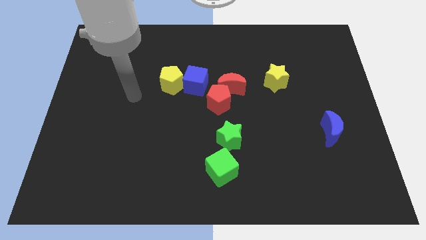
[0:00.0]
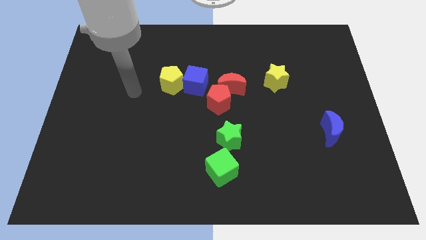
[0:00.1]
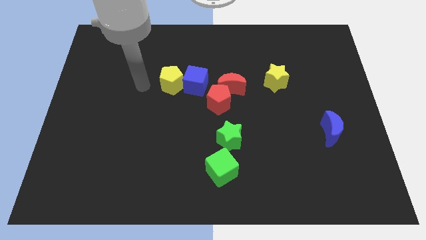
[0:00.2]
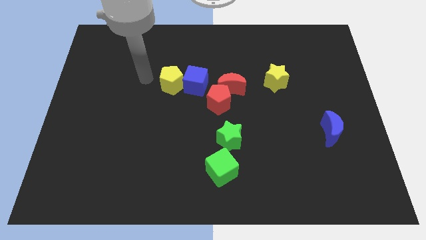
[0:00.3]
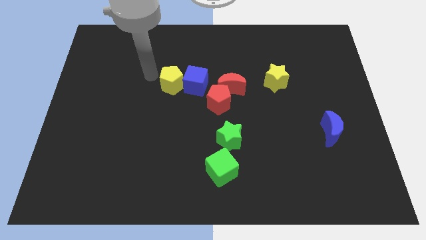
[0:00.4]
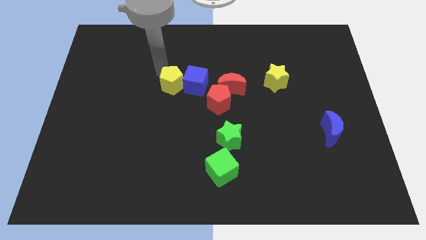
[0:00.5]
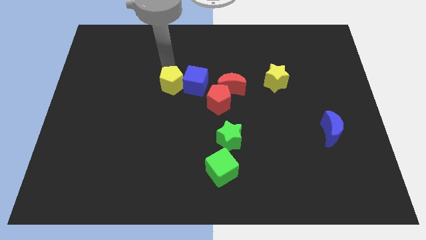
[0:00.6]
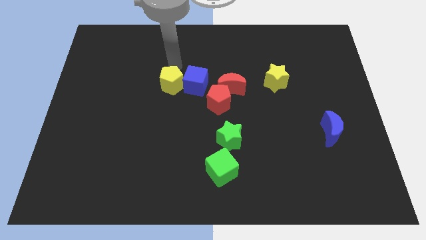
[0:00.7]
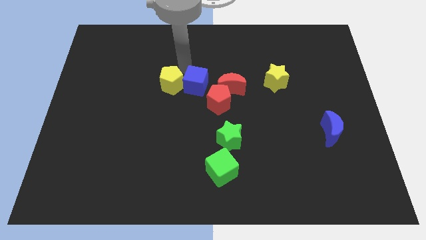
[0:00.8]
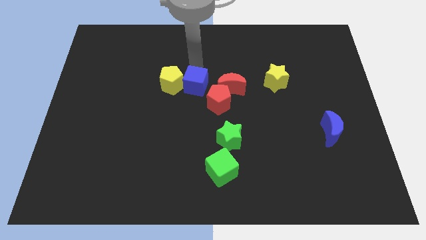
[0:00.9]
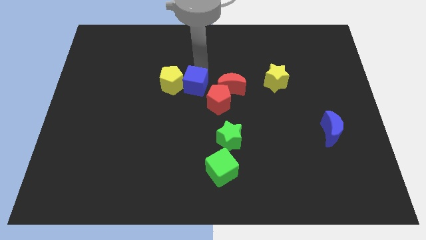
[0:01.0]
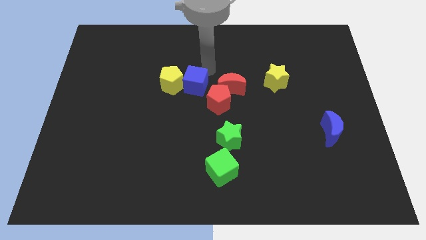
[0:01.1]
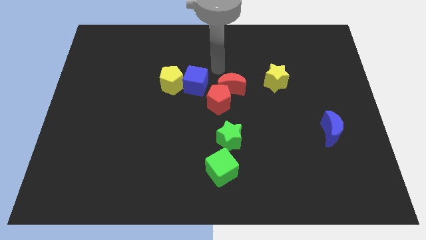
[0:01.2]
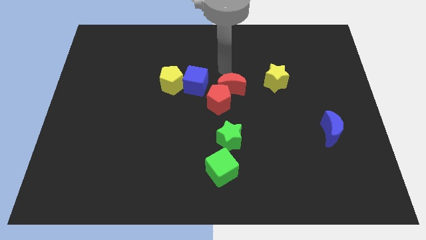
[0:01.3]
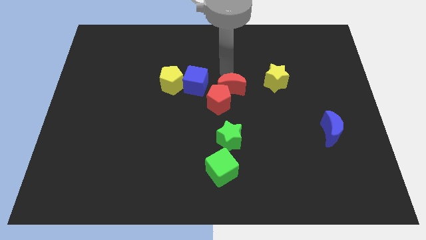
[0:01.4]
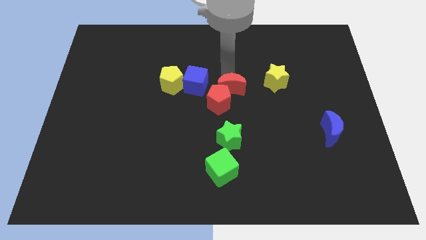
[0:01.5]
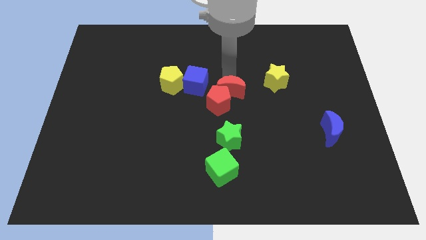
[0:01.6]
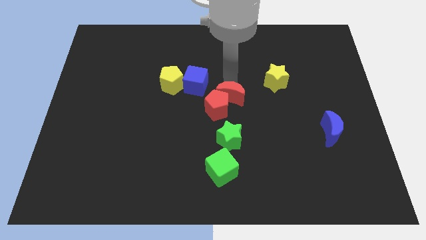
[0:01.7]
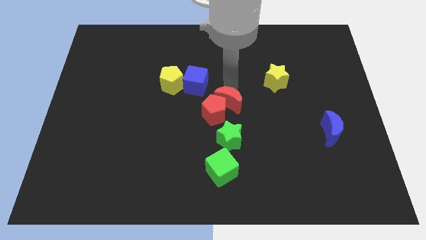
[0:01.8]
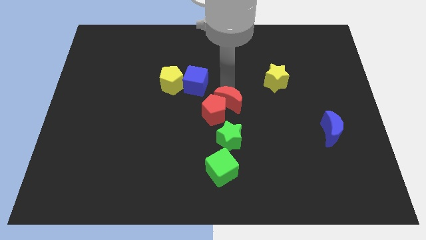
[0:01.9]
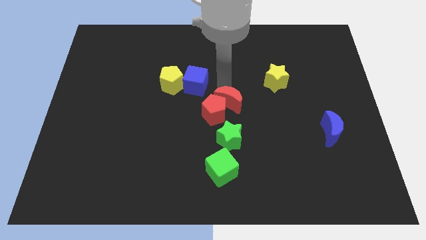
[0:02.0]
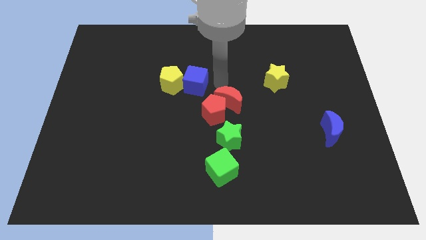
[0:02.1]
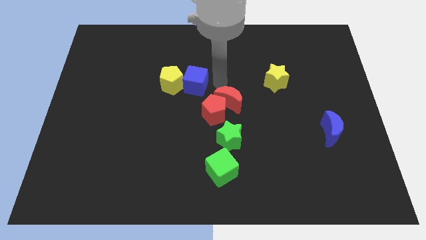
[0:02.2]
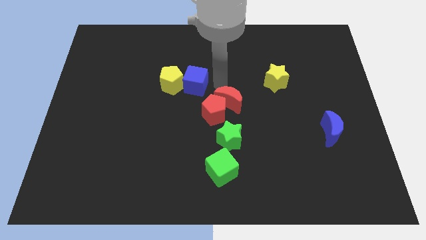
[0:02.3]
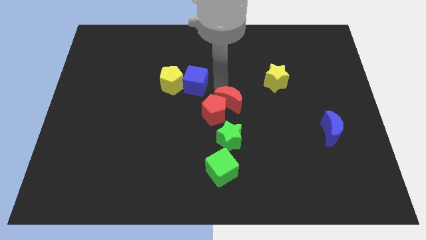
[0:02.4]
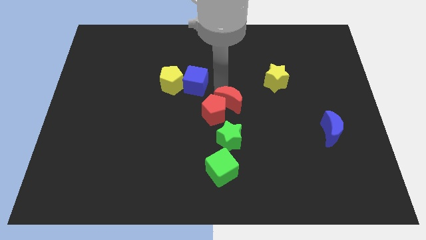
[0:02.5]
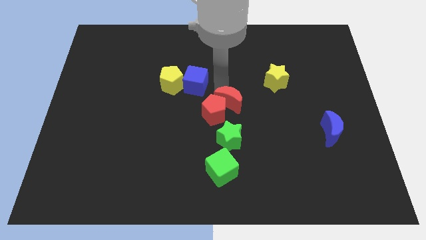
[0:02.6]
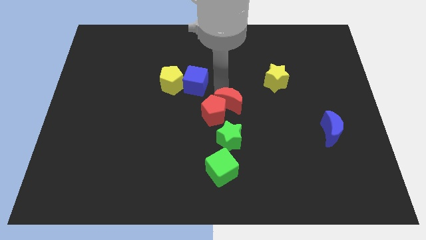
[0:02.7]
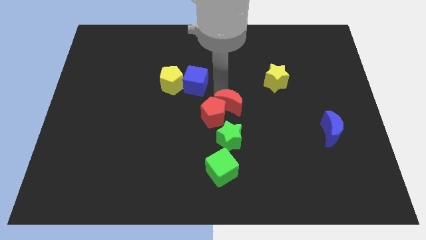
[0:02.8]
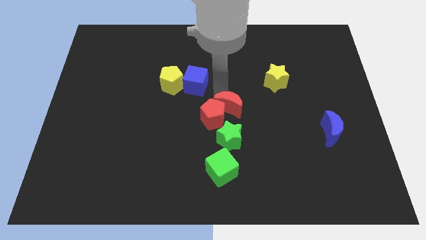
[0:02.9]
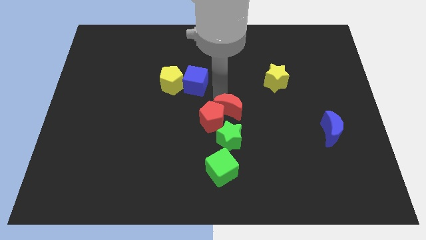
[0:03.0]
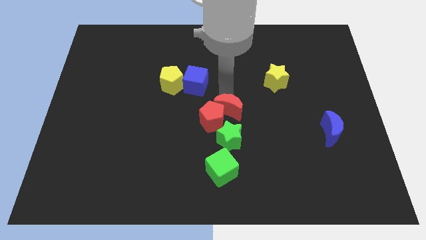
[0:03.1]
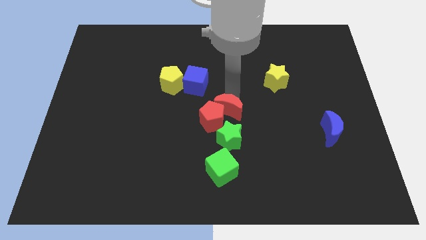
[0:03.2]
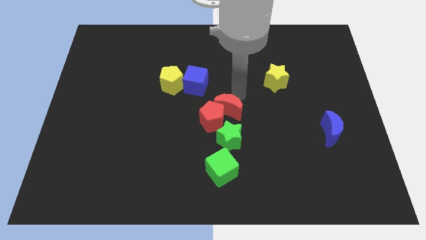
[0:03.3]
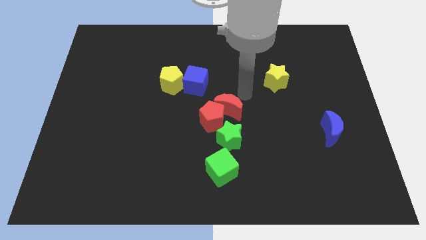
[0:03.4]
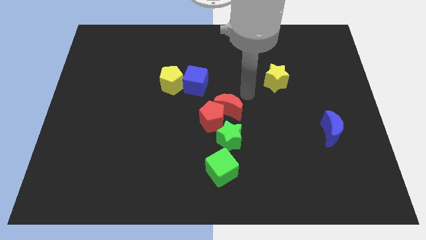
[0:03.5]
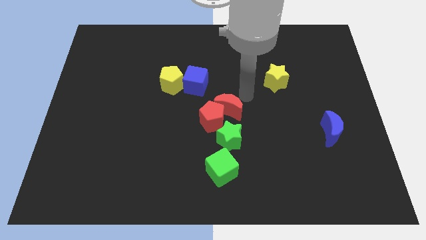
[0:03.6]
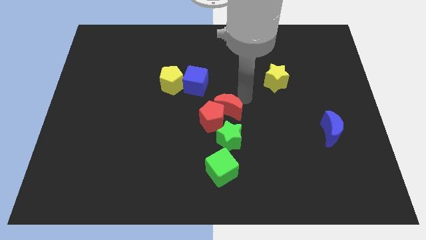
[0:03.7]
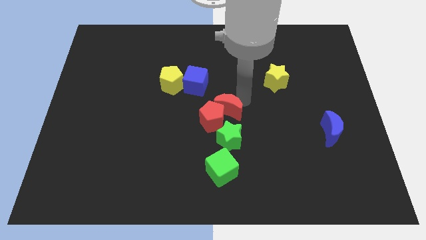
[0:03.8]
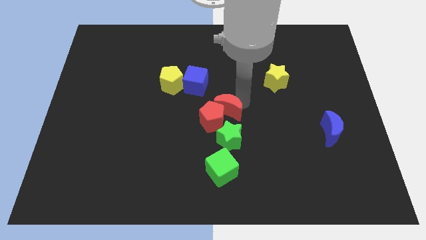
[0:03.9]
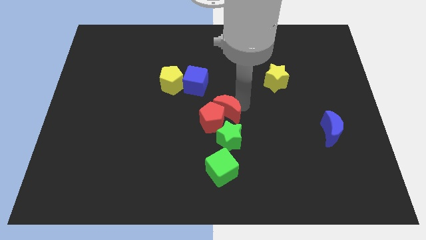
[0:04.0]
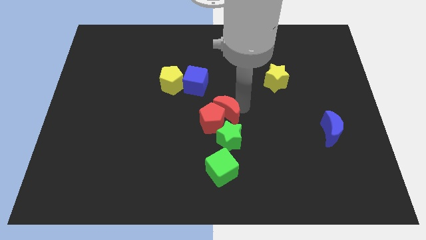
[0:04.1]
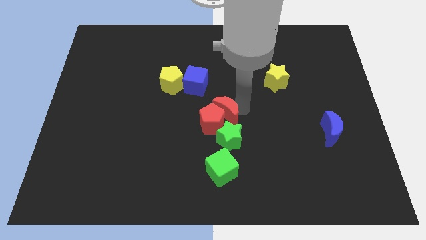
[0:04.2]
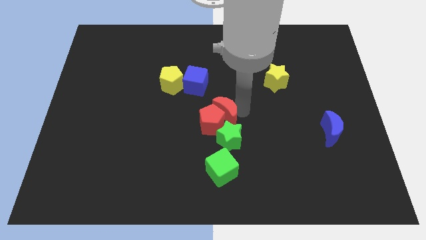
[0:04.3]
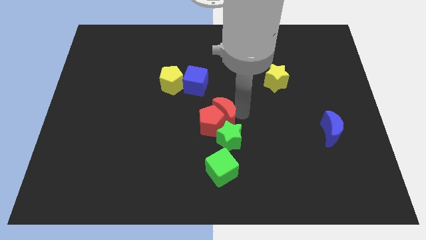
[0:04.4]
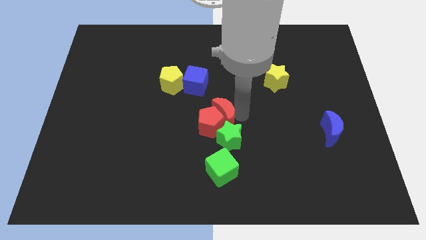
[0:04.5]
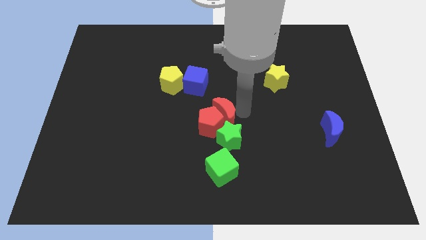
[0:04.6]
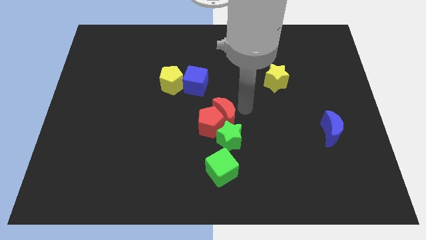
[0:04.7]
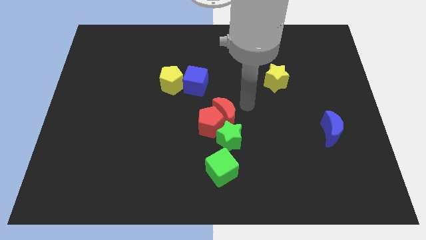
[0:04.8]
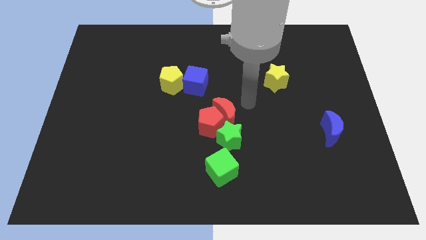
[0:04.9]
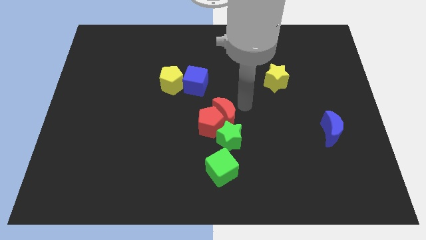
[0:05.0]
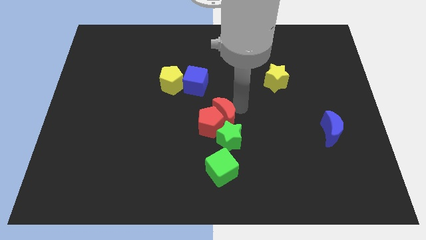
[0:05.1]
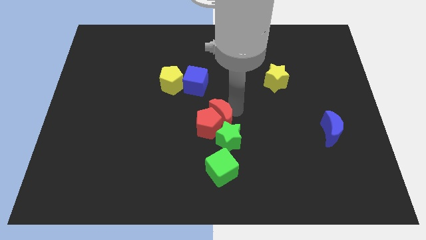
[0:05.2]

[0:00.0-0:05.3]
move the red moon downwards and then to the left slightly

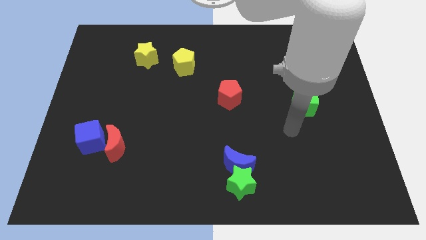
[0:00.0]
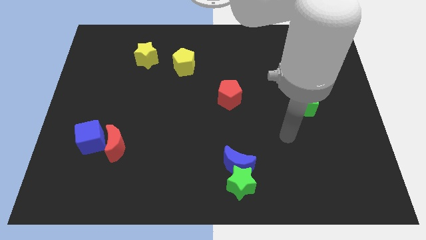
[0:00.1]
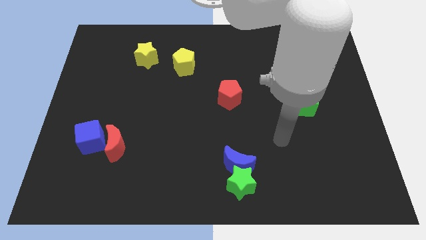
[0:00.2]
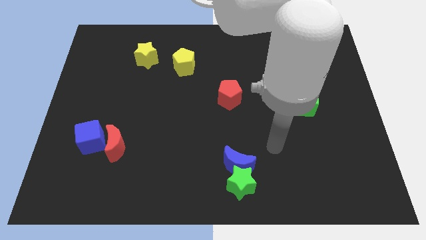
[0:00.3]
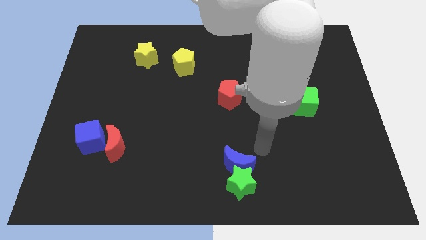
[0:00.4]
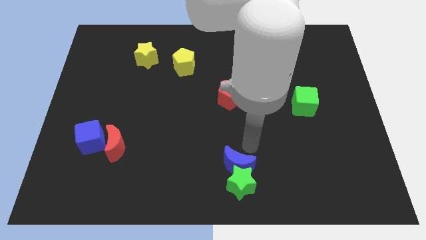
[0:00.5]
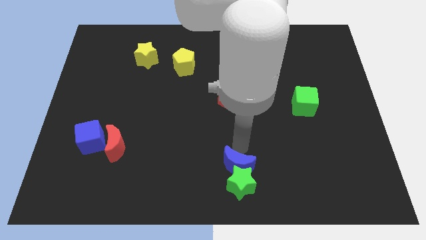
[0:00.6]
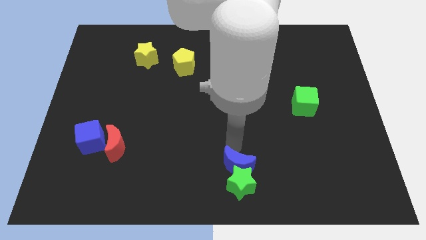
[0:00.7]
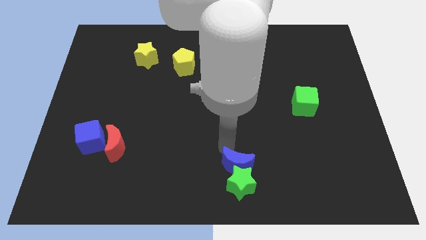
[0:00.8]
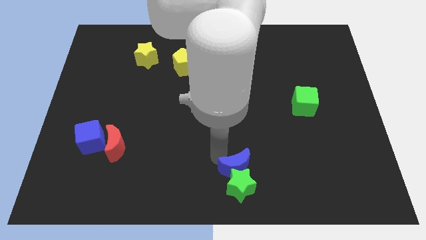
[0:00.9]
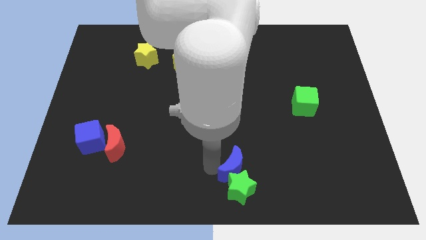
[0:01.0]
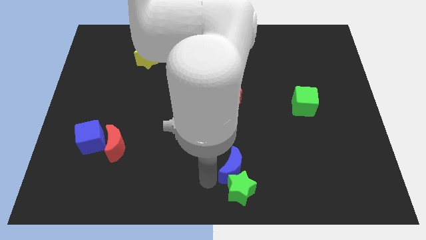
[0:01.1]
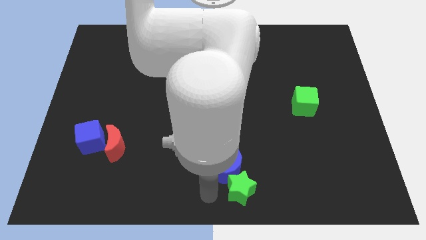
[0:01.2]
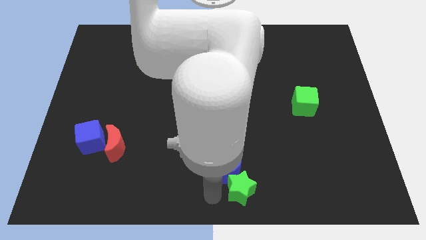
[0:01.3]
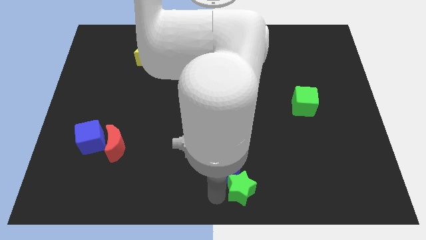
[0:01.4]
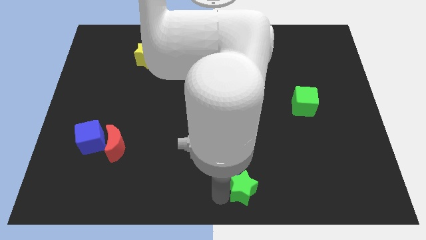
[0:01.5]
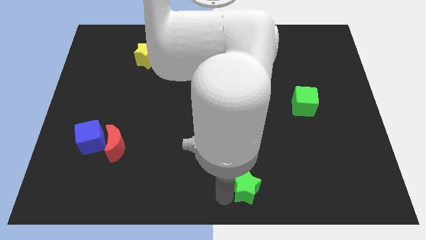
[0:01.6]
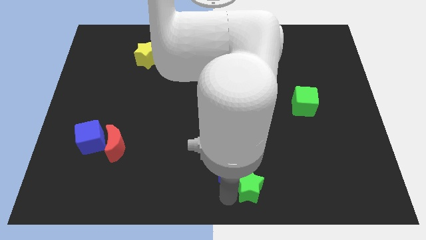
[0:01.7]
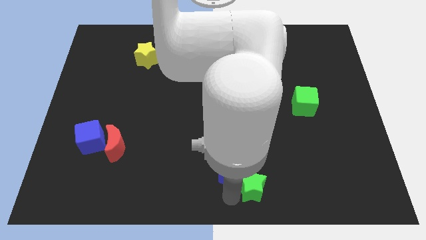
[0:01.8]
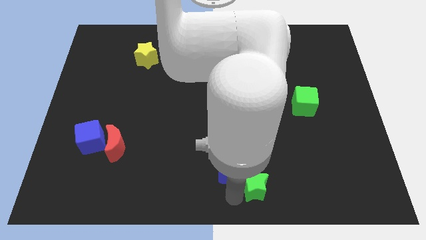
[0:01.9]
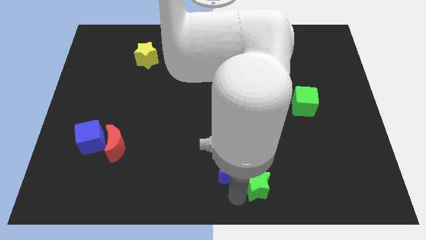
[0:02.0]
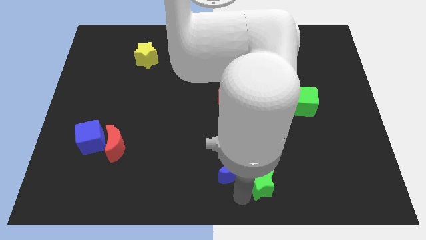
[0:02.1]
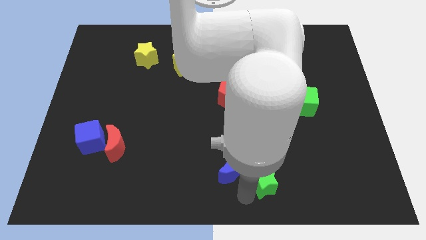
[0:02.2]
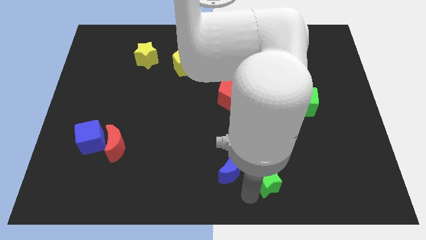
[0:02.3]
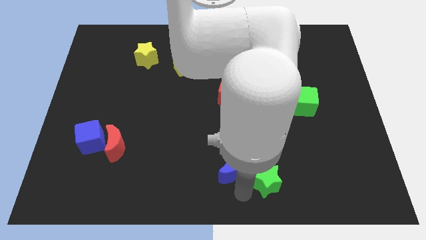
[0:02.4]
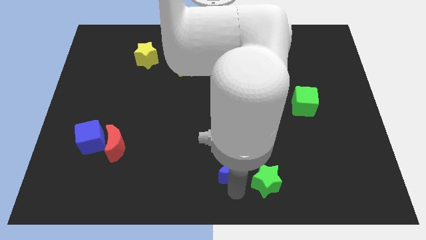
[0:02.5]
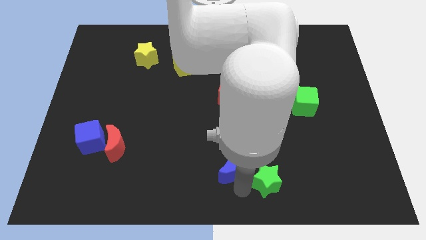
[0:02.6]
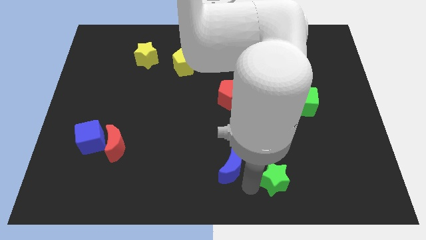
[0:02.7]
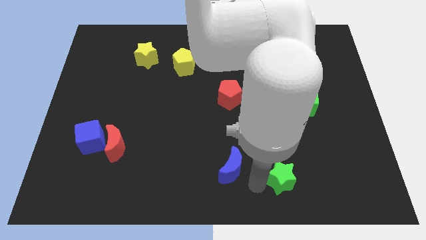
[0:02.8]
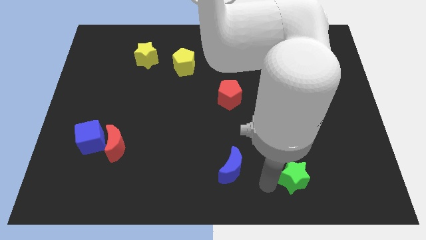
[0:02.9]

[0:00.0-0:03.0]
move the green star upwards and right diagonally a bit
